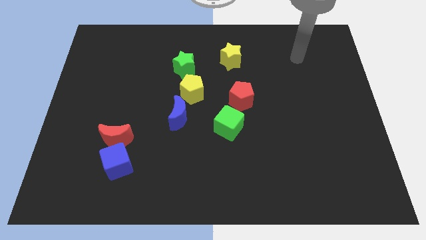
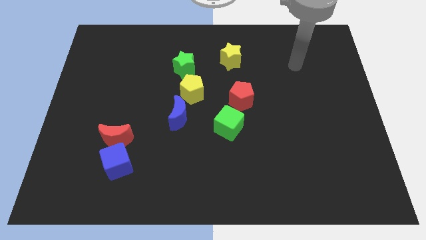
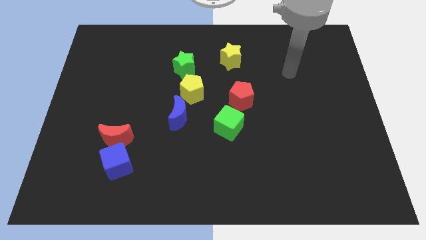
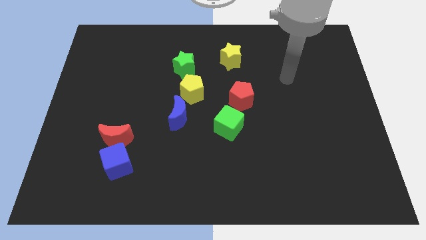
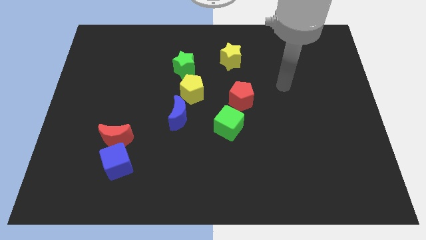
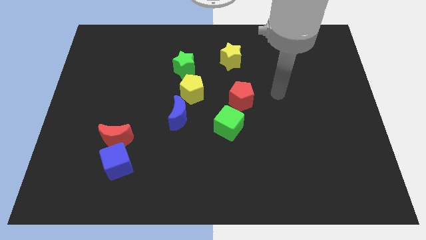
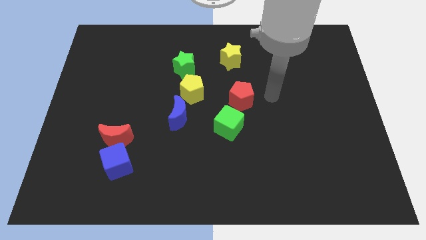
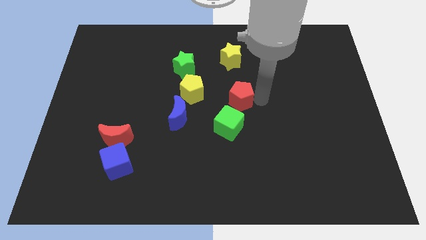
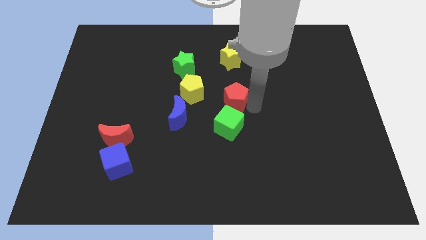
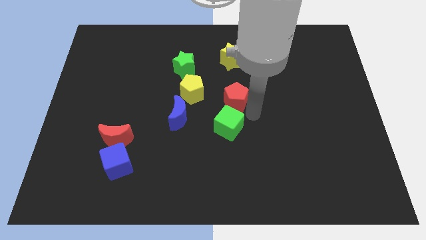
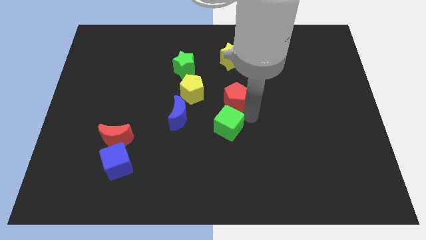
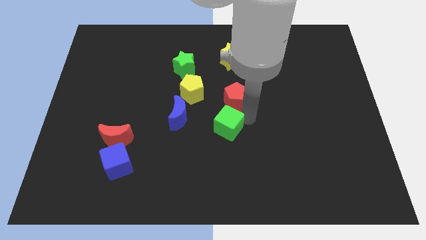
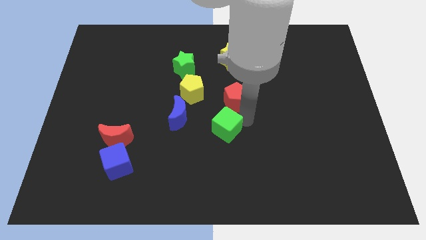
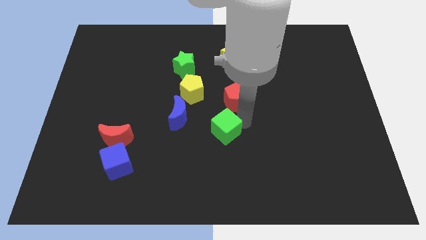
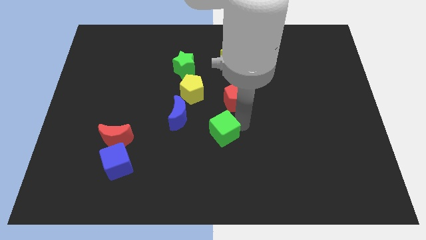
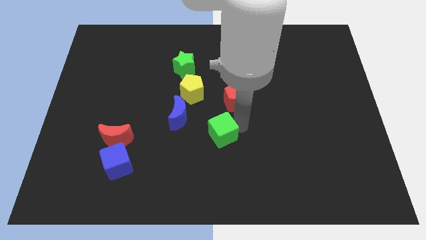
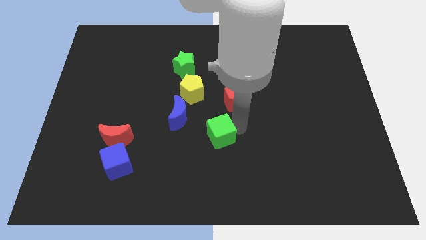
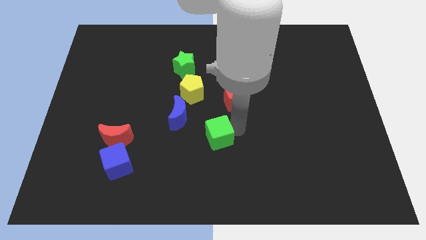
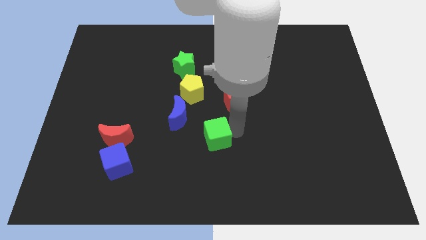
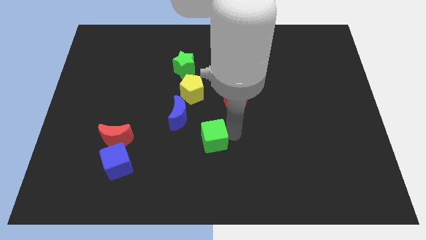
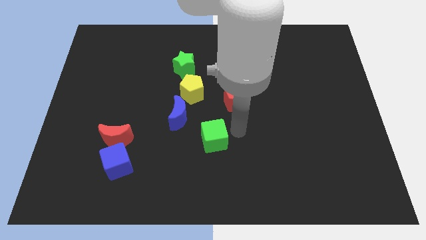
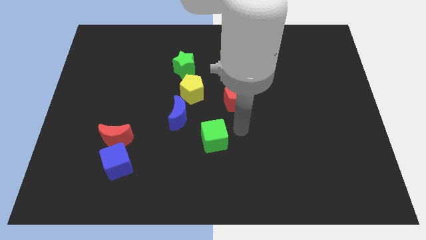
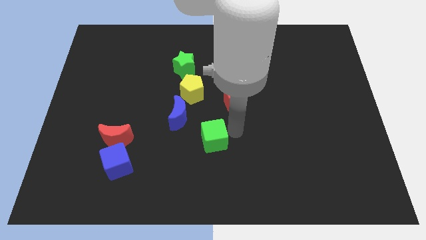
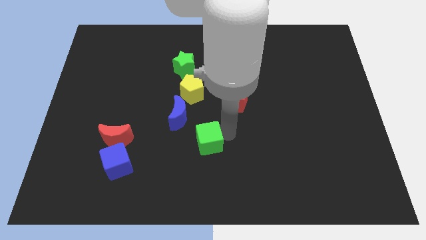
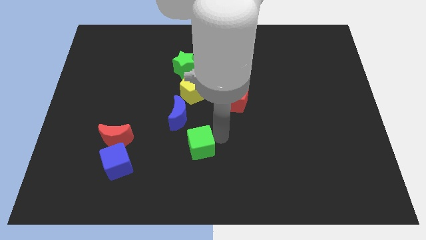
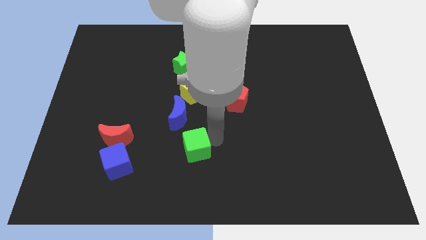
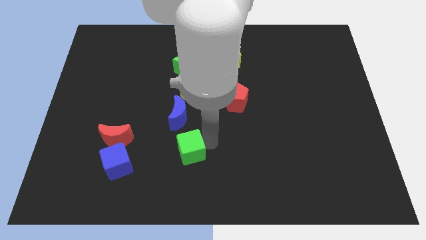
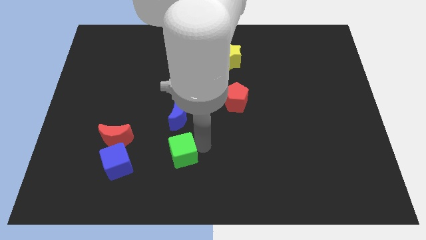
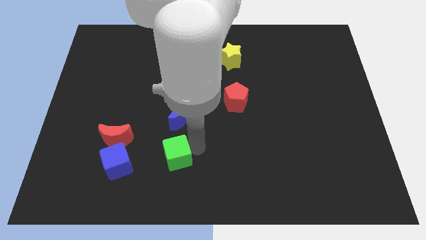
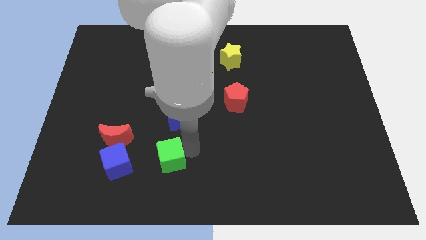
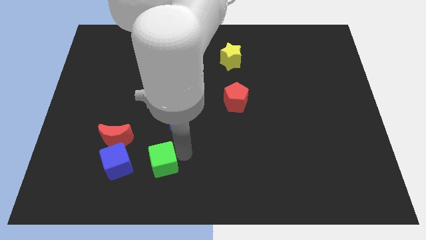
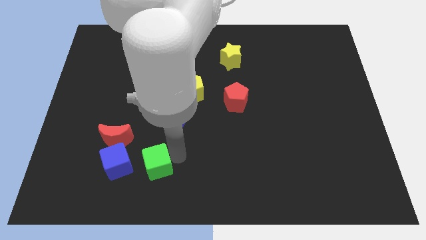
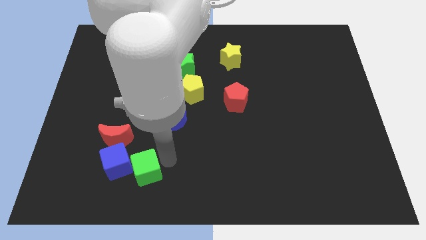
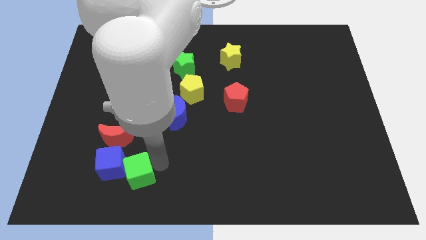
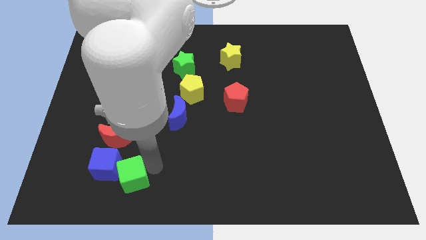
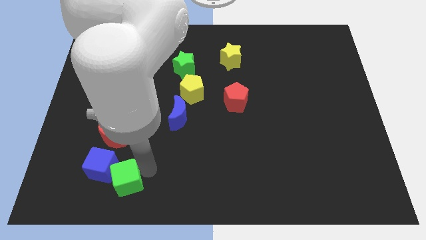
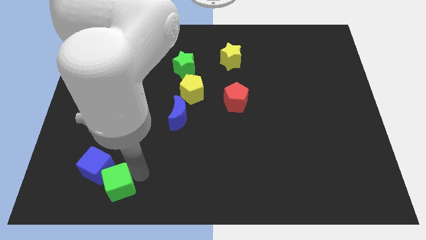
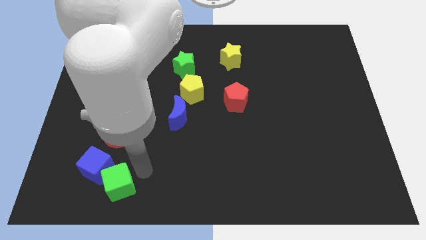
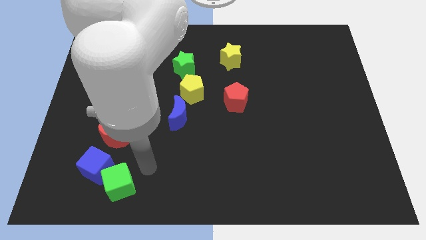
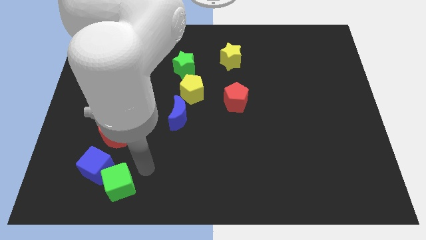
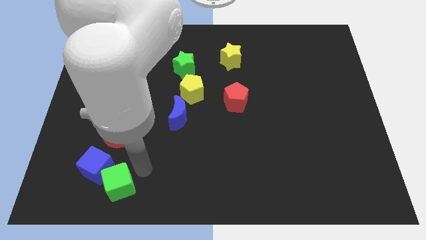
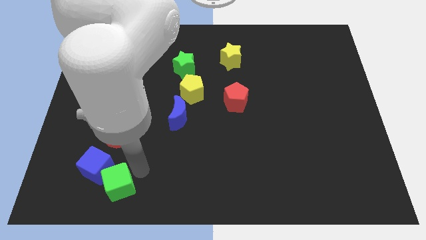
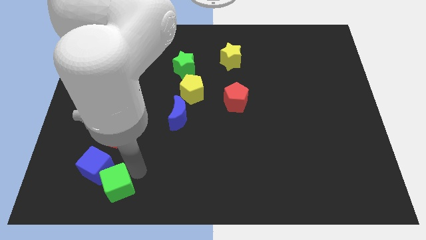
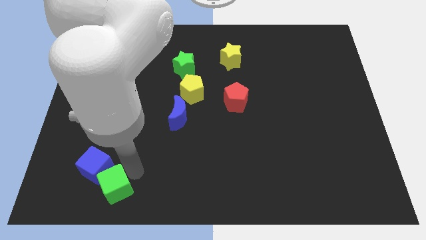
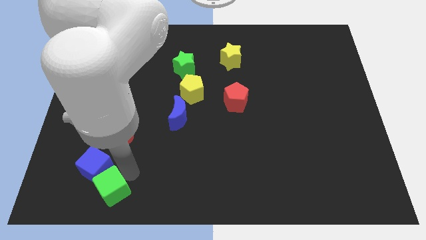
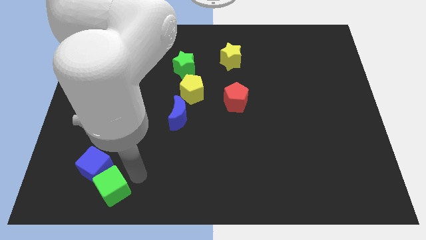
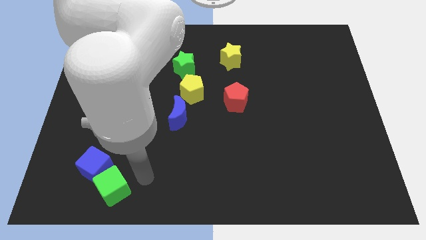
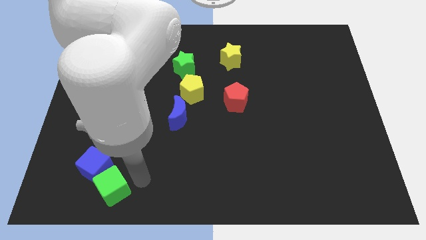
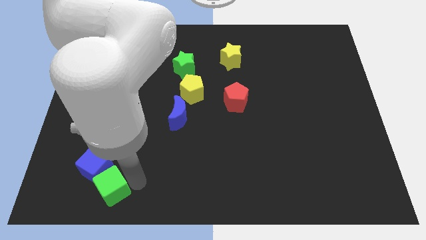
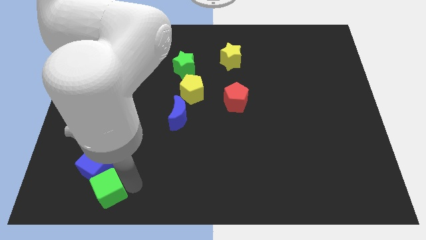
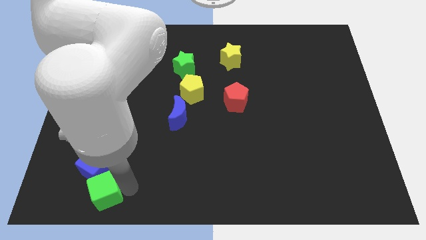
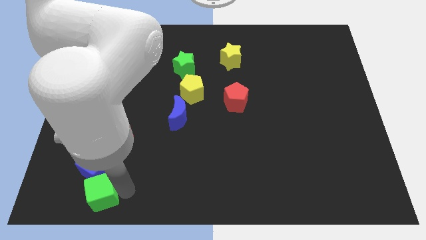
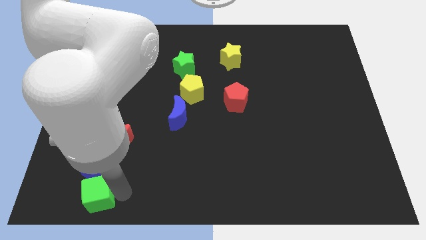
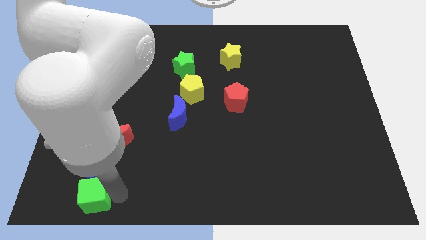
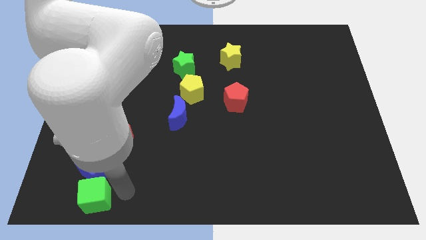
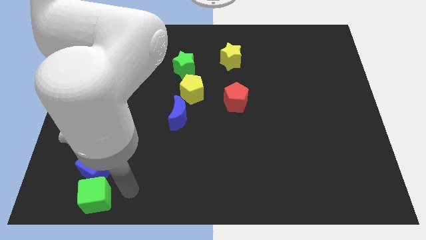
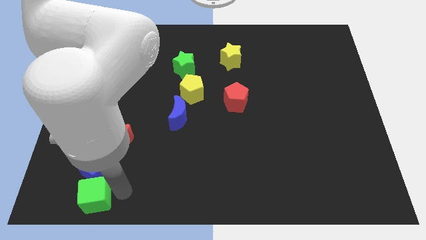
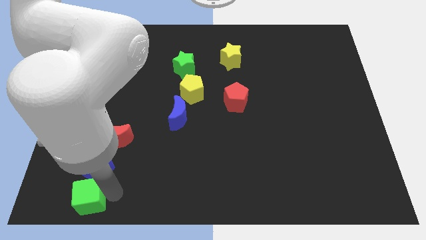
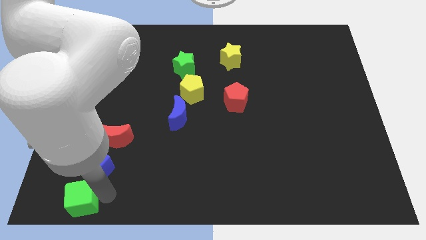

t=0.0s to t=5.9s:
slide the green cube to the bottom left of the board
